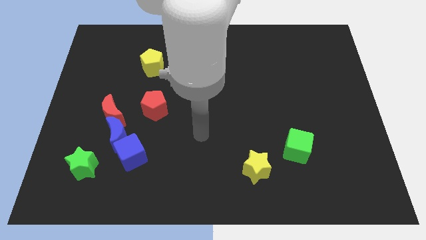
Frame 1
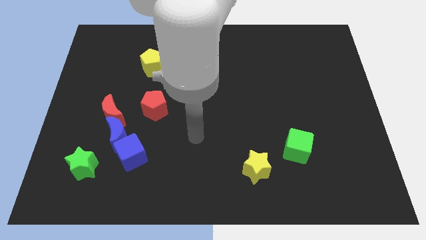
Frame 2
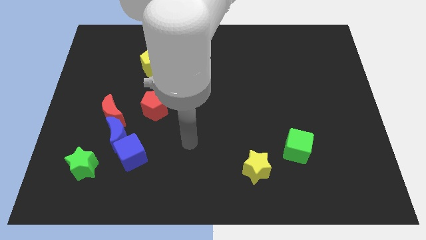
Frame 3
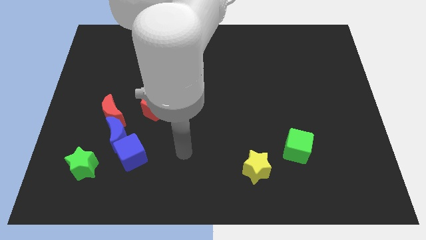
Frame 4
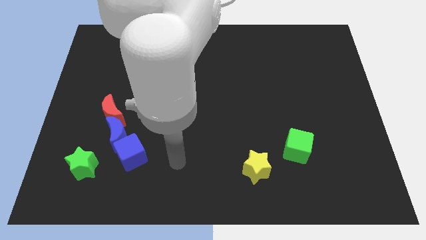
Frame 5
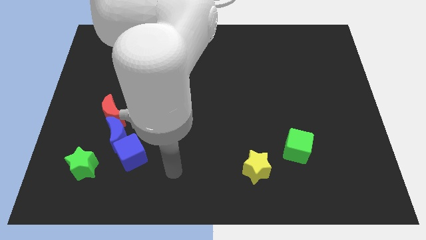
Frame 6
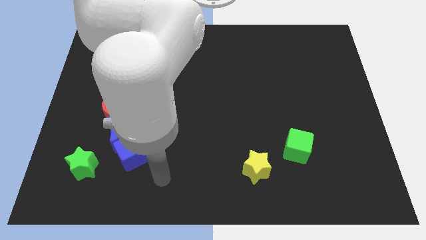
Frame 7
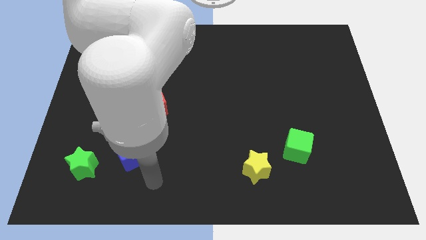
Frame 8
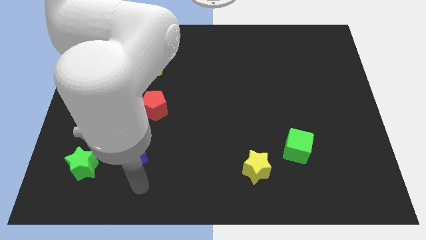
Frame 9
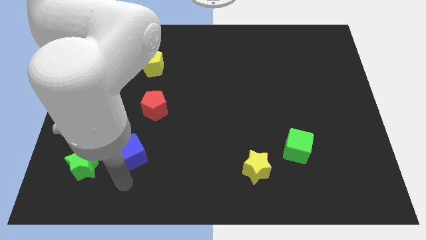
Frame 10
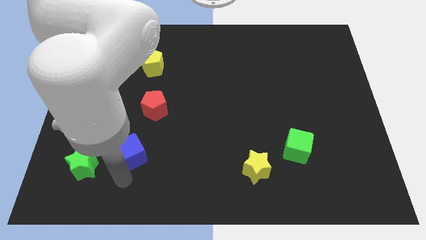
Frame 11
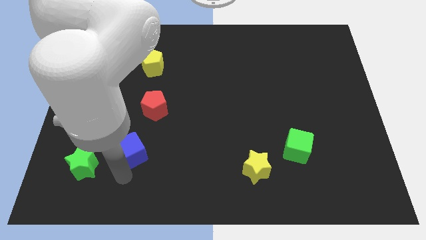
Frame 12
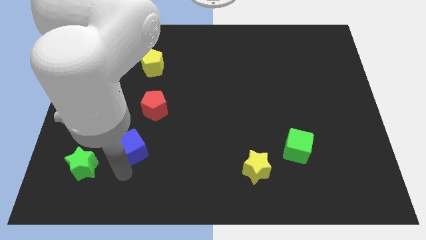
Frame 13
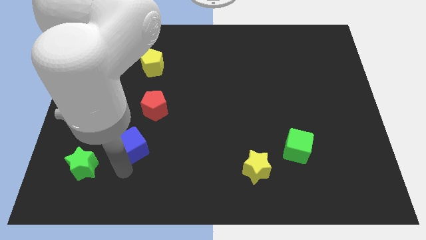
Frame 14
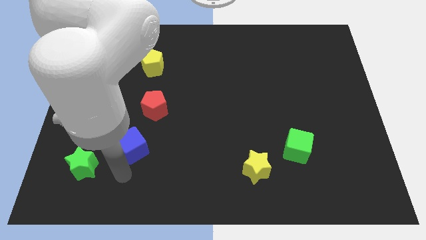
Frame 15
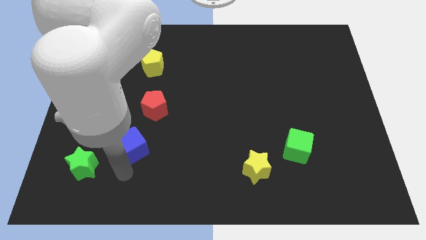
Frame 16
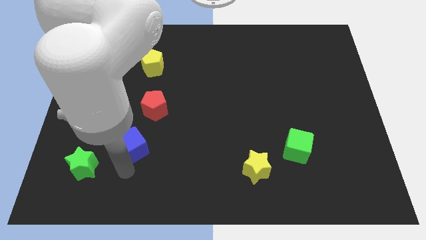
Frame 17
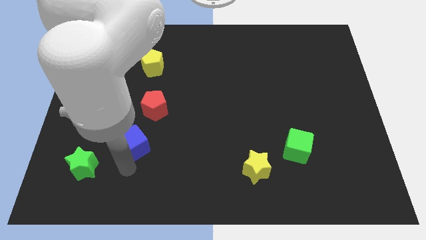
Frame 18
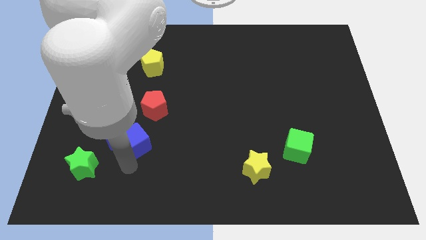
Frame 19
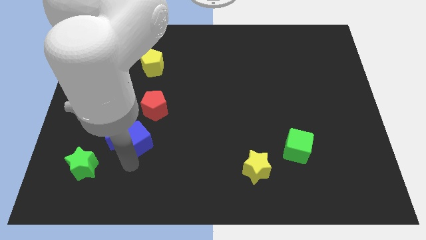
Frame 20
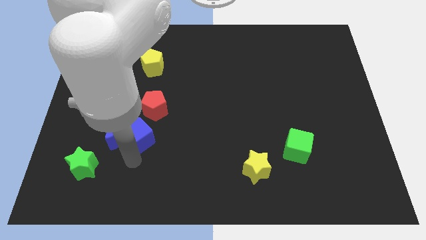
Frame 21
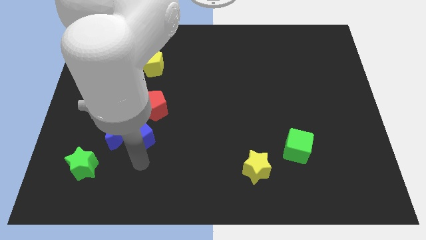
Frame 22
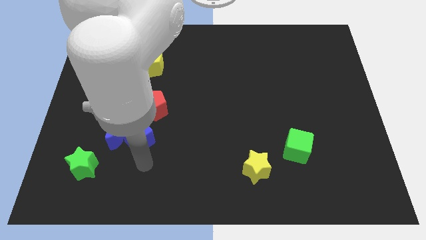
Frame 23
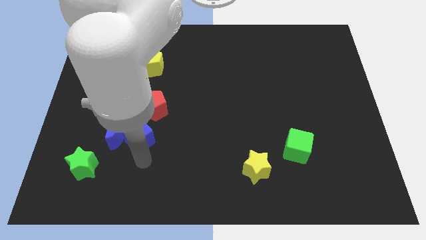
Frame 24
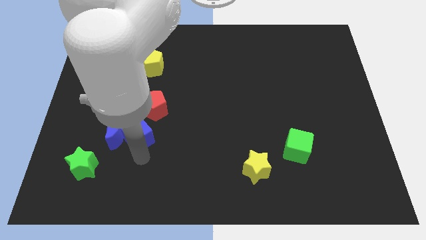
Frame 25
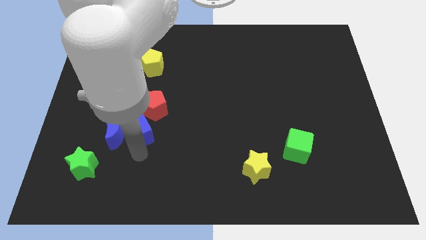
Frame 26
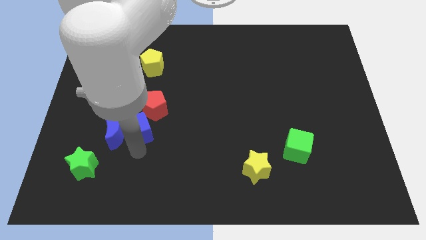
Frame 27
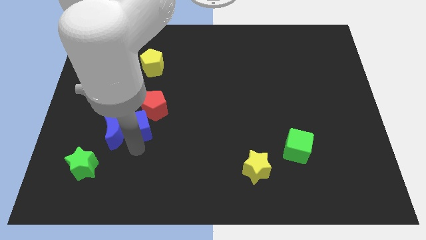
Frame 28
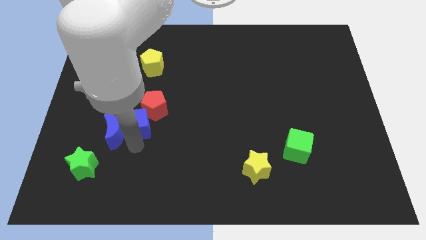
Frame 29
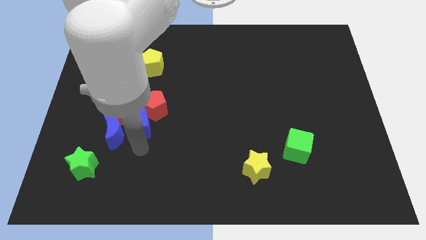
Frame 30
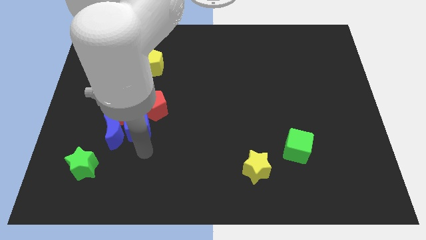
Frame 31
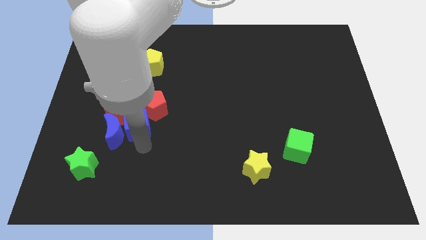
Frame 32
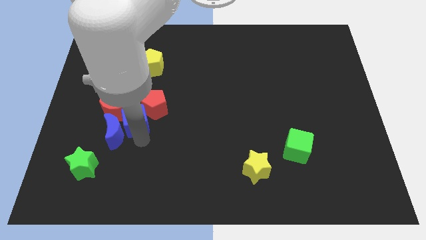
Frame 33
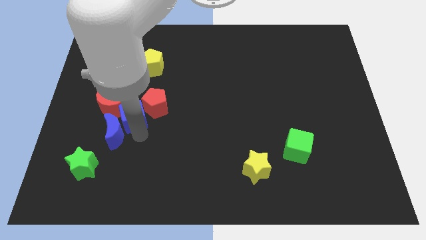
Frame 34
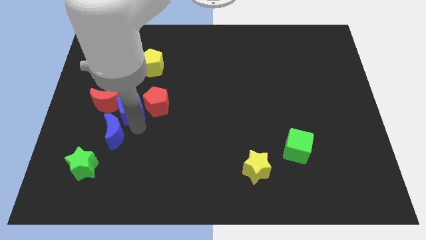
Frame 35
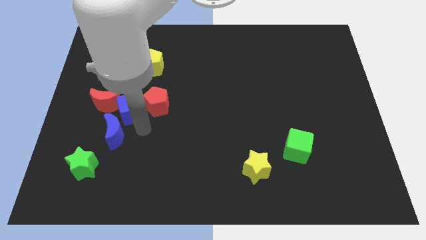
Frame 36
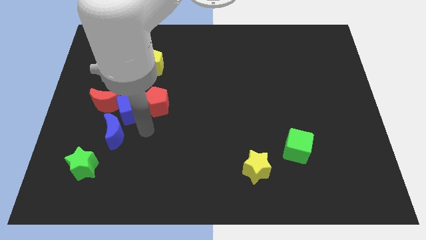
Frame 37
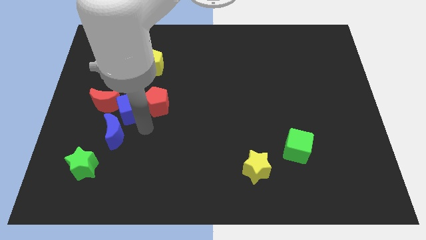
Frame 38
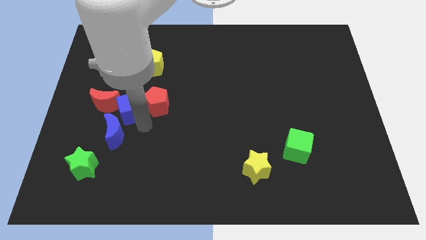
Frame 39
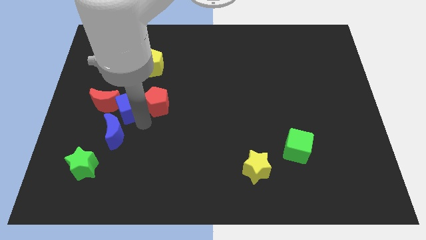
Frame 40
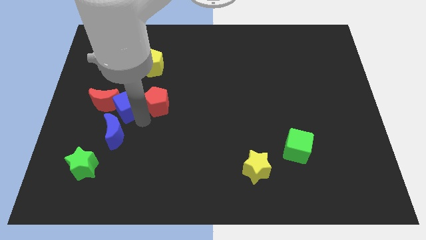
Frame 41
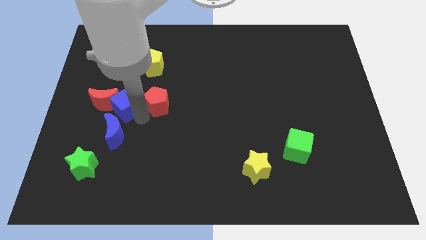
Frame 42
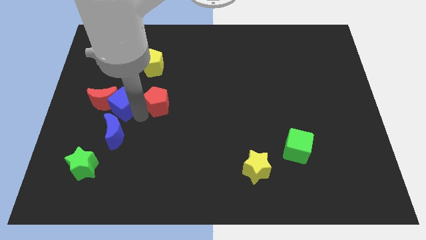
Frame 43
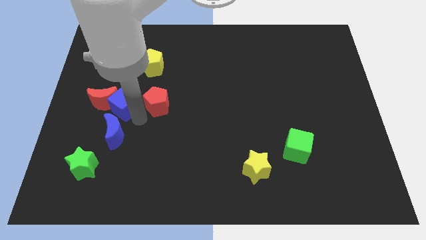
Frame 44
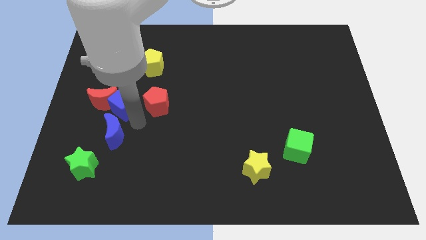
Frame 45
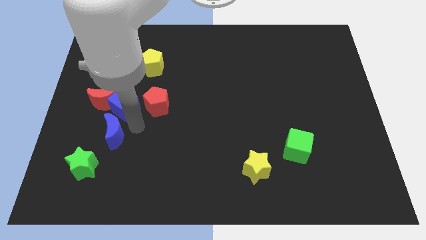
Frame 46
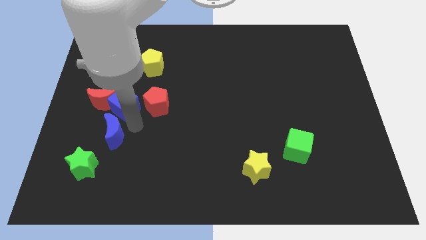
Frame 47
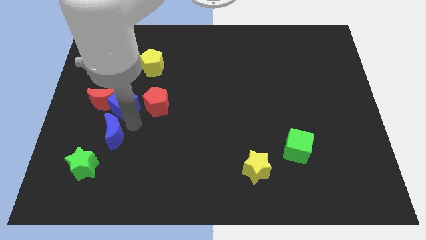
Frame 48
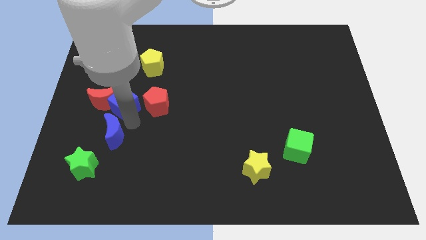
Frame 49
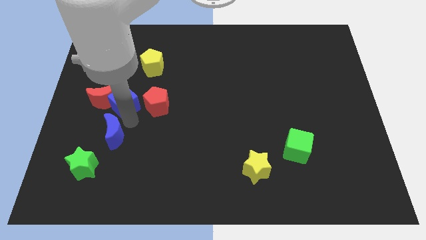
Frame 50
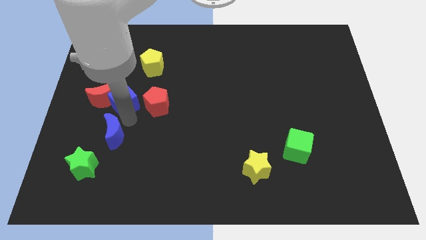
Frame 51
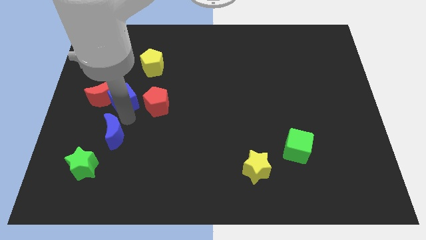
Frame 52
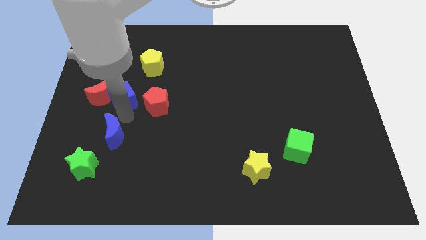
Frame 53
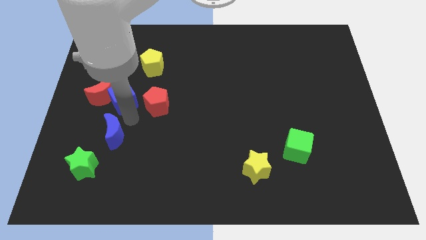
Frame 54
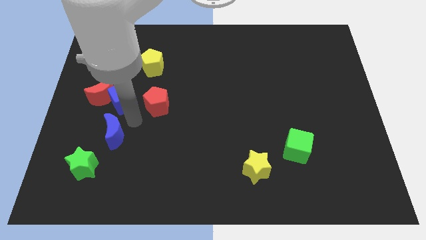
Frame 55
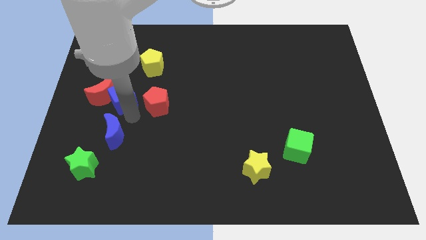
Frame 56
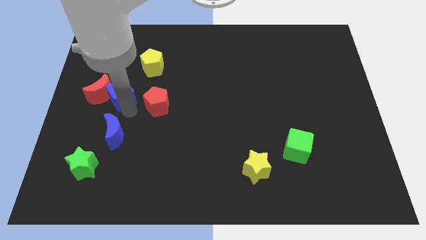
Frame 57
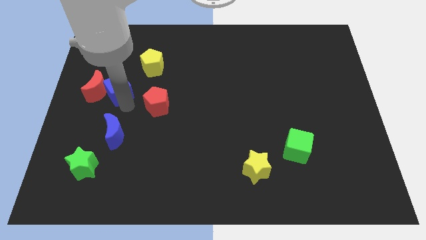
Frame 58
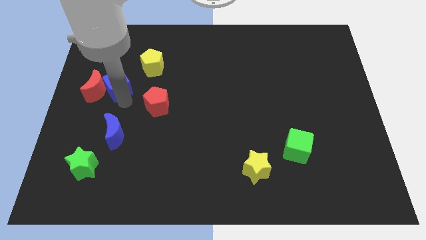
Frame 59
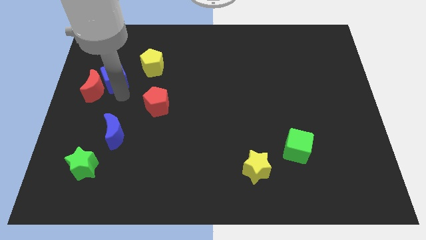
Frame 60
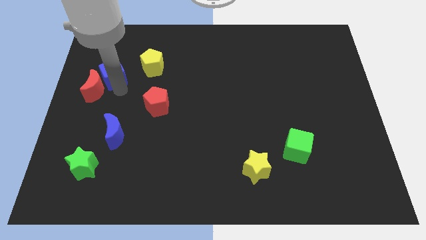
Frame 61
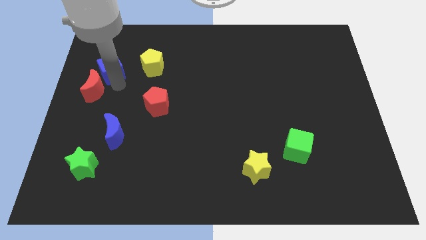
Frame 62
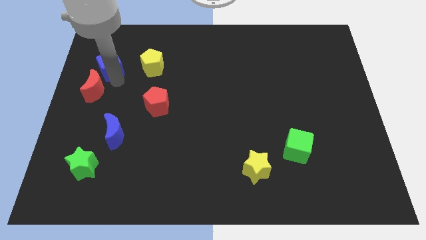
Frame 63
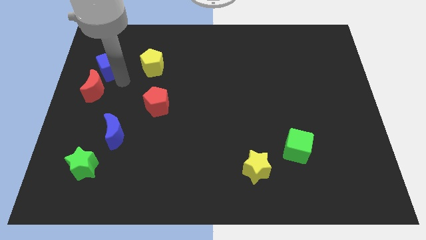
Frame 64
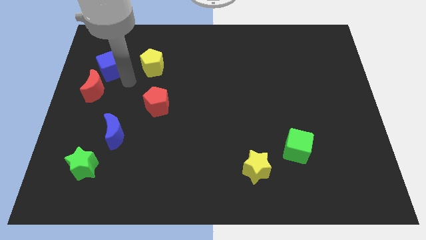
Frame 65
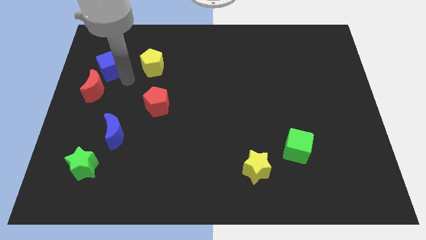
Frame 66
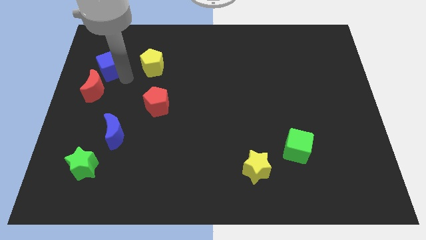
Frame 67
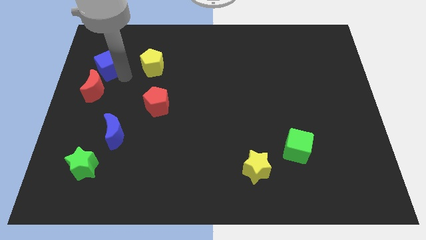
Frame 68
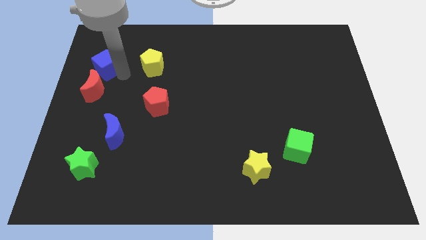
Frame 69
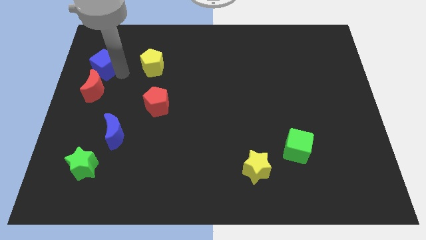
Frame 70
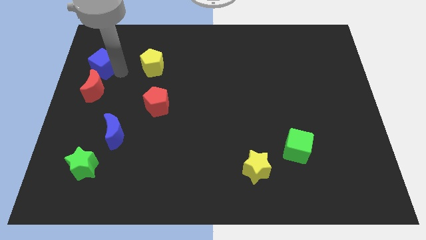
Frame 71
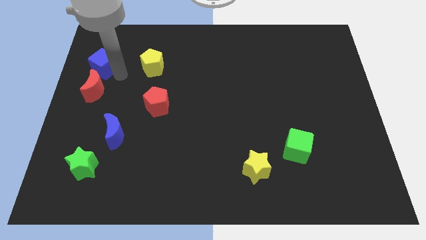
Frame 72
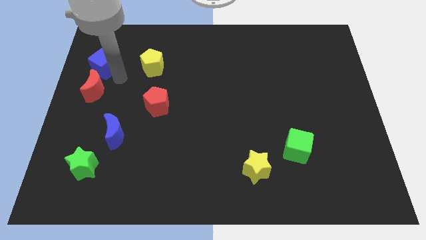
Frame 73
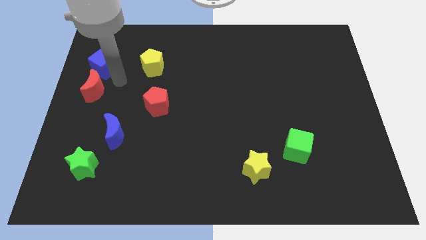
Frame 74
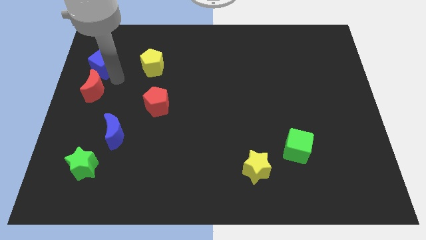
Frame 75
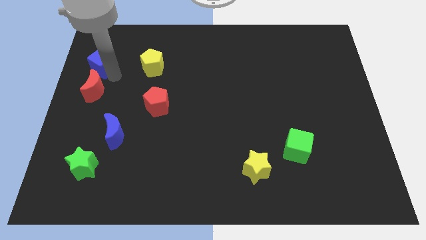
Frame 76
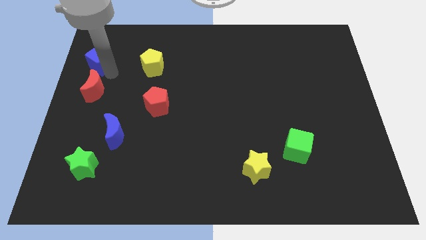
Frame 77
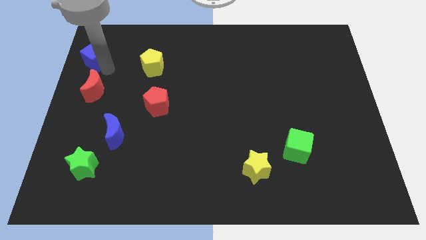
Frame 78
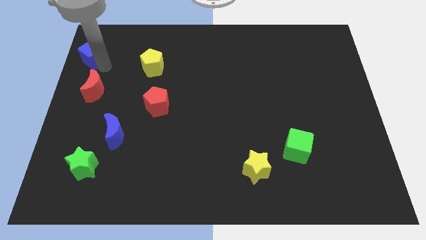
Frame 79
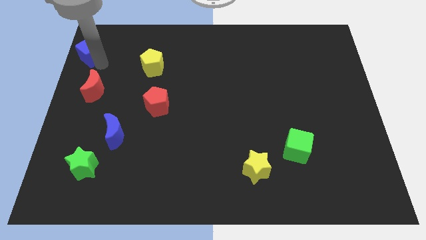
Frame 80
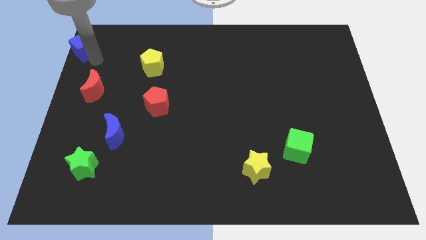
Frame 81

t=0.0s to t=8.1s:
put the blue cube to the top left
